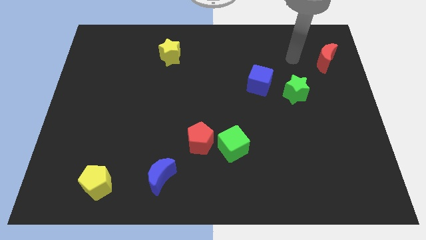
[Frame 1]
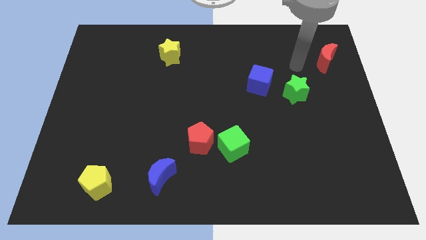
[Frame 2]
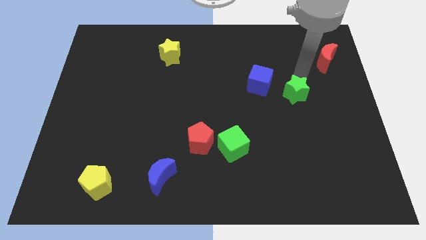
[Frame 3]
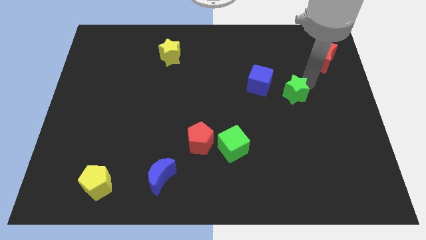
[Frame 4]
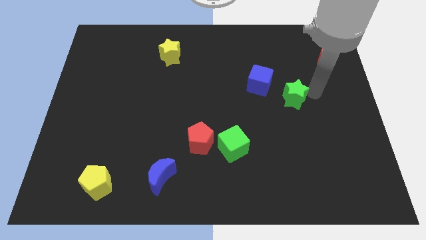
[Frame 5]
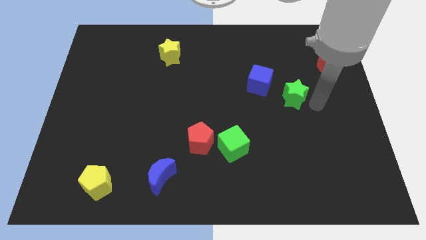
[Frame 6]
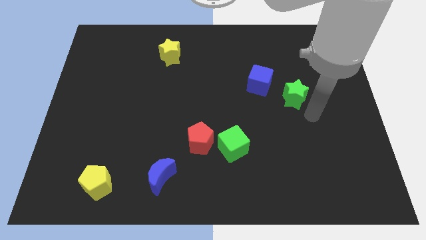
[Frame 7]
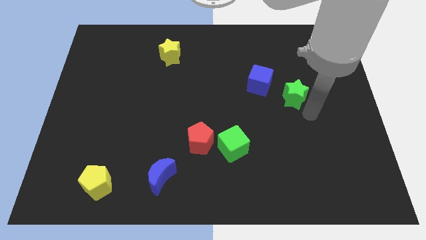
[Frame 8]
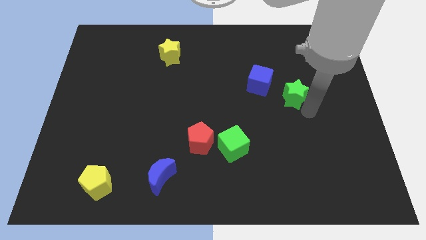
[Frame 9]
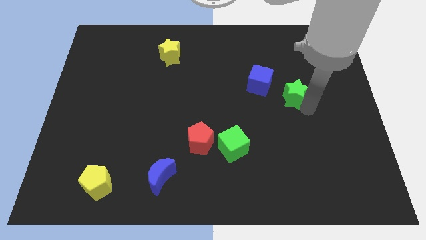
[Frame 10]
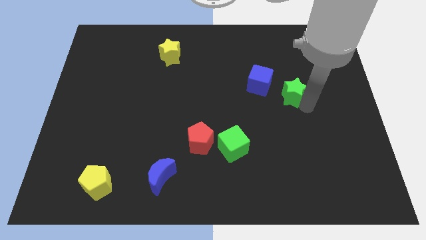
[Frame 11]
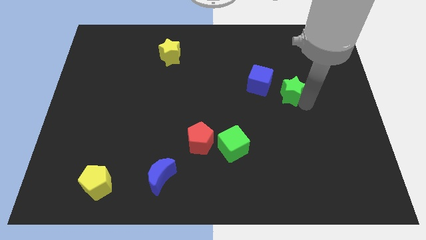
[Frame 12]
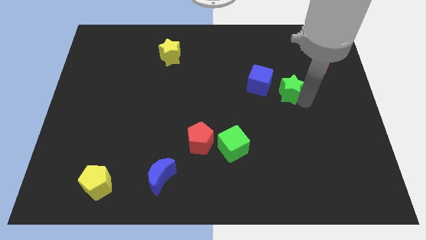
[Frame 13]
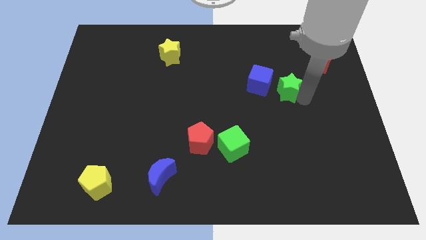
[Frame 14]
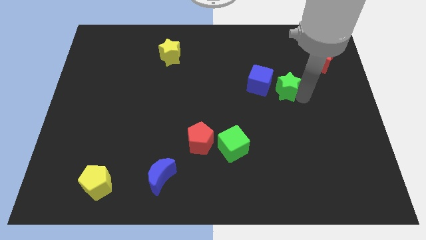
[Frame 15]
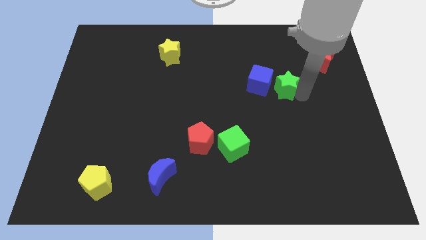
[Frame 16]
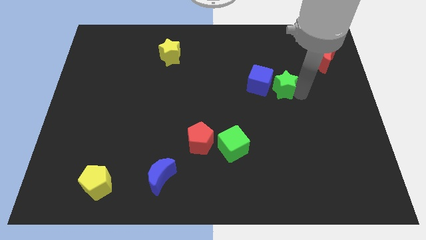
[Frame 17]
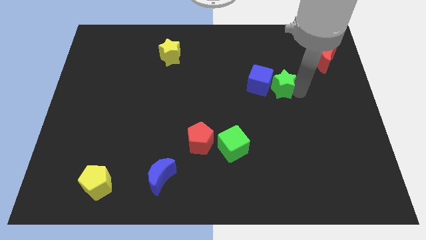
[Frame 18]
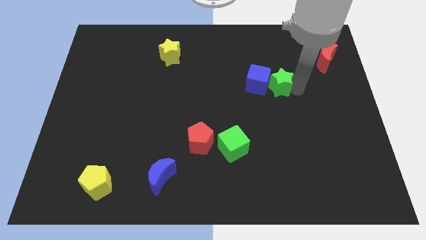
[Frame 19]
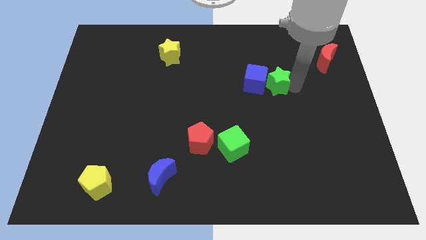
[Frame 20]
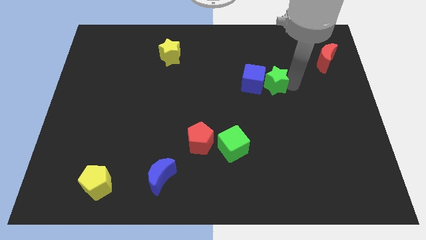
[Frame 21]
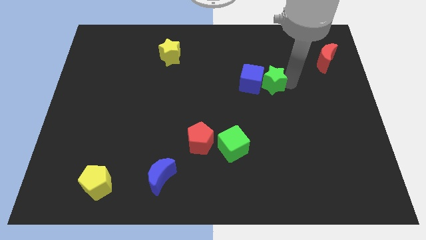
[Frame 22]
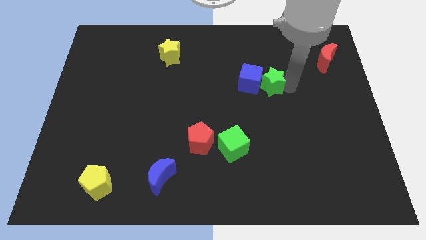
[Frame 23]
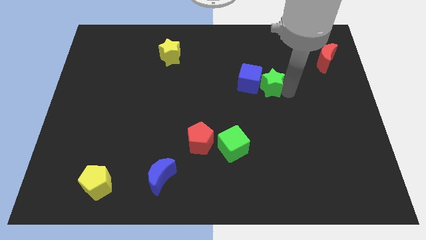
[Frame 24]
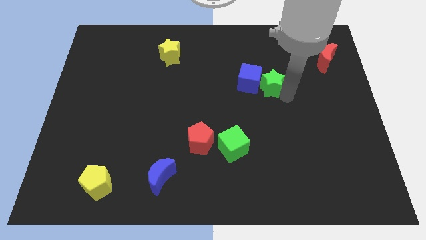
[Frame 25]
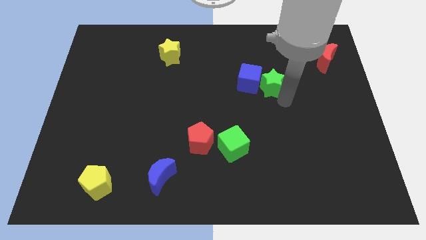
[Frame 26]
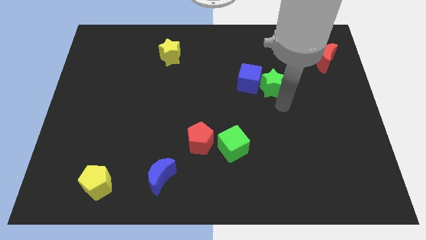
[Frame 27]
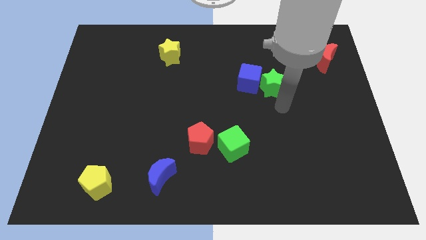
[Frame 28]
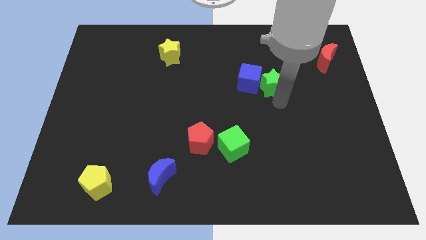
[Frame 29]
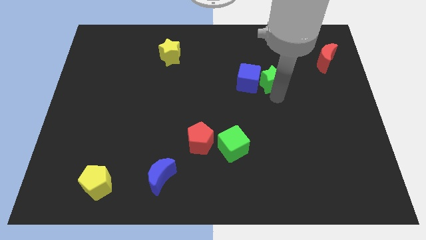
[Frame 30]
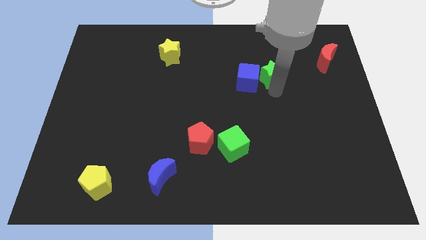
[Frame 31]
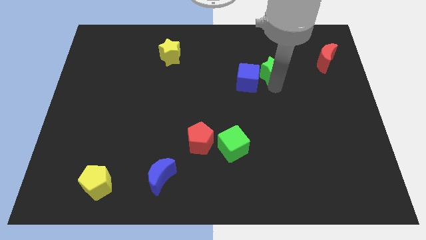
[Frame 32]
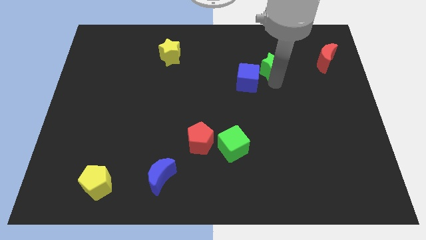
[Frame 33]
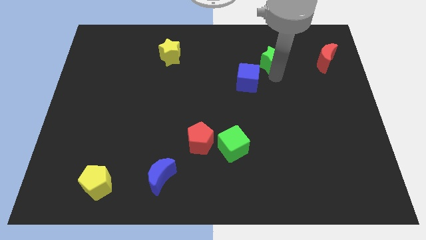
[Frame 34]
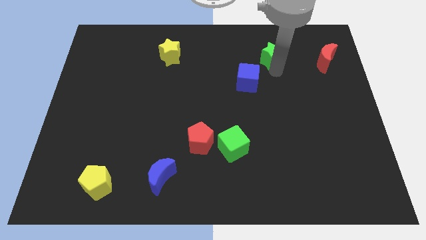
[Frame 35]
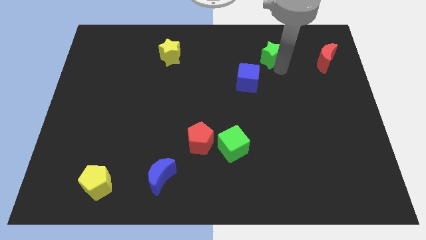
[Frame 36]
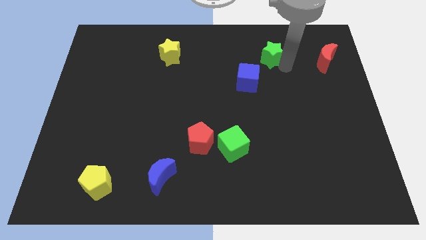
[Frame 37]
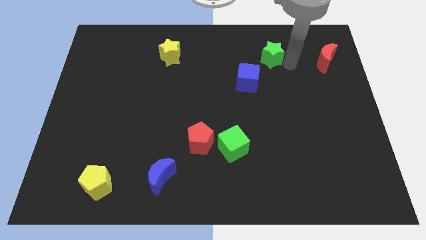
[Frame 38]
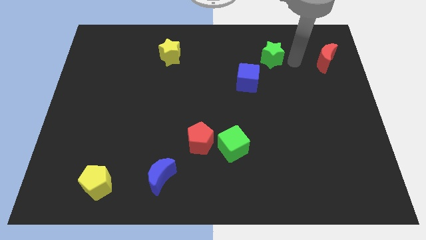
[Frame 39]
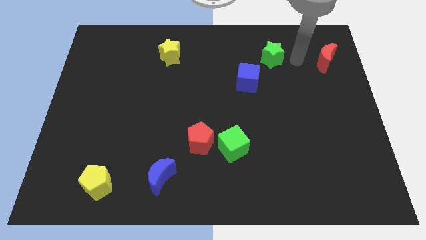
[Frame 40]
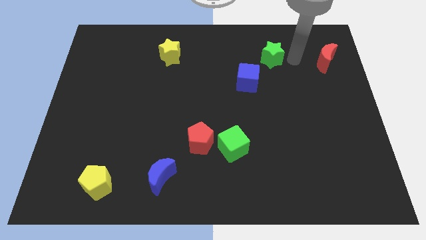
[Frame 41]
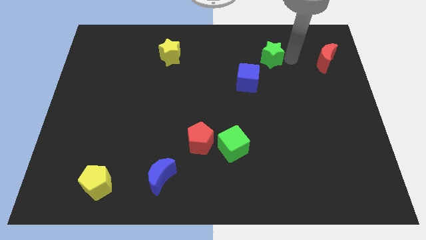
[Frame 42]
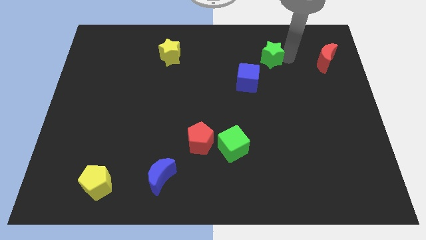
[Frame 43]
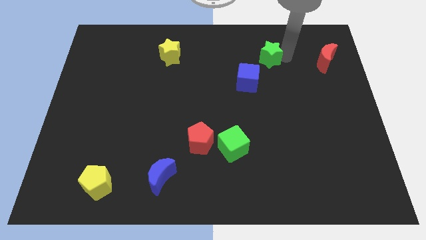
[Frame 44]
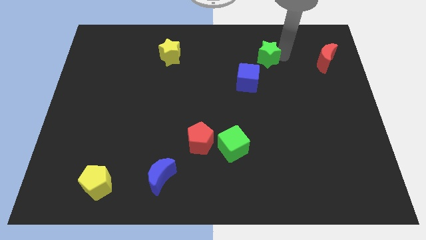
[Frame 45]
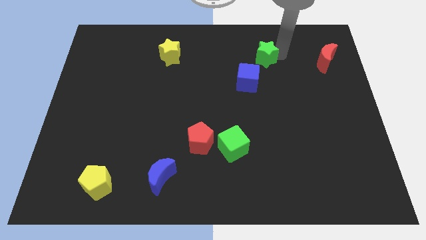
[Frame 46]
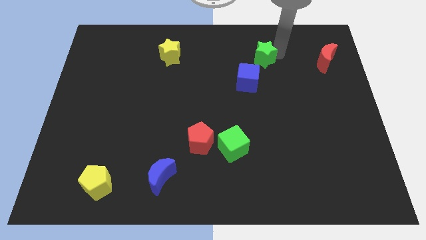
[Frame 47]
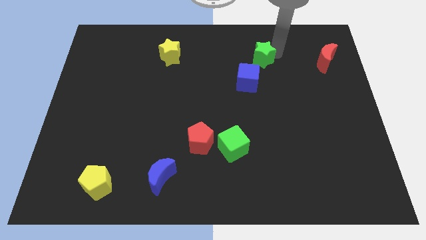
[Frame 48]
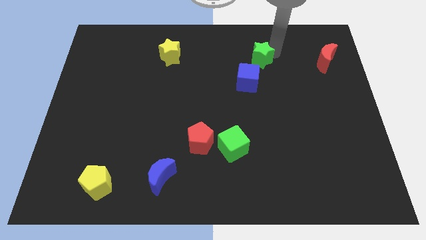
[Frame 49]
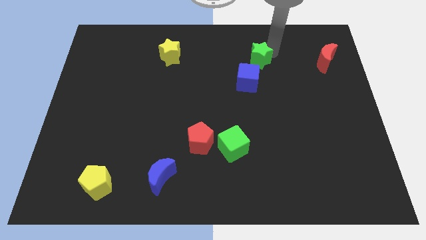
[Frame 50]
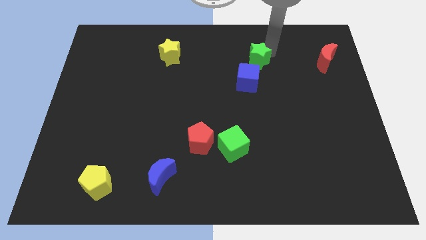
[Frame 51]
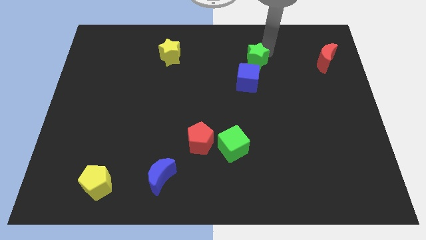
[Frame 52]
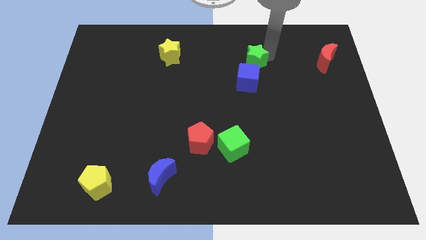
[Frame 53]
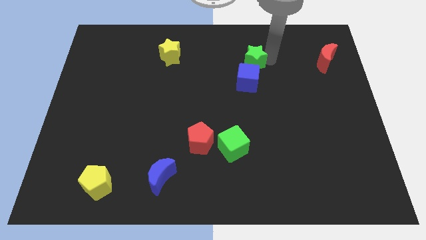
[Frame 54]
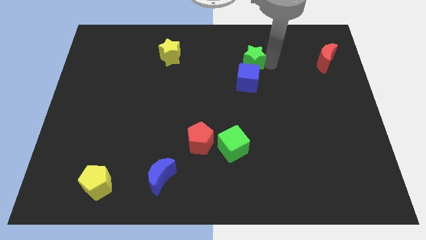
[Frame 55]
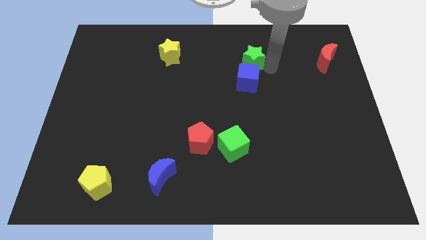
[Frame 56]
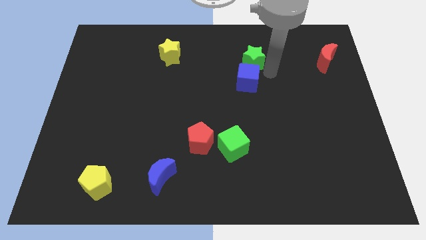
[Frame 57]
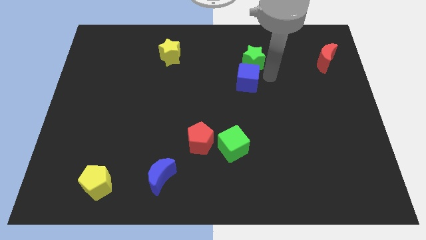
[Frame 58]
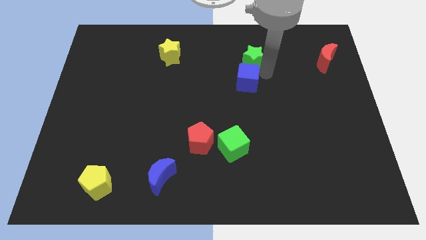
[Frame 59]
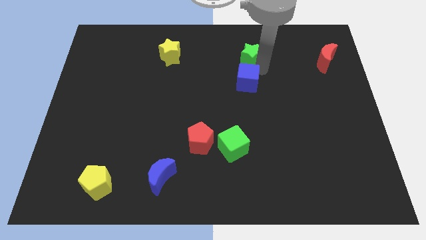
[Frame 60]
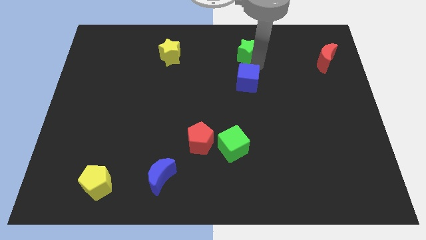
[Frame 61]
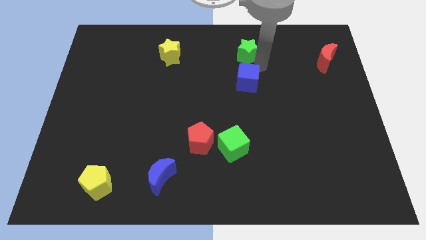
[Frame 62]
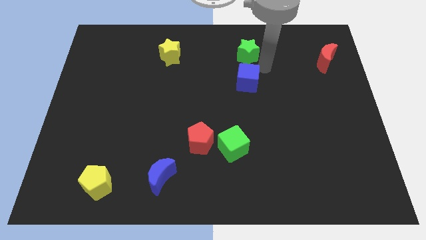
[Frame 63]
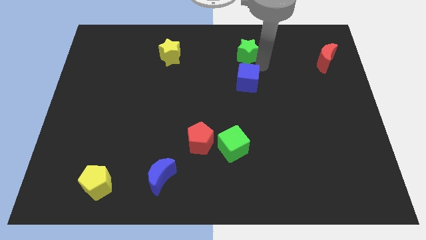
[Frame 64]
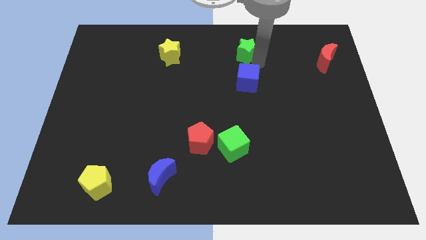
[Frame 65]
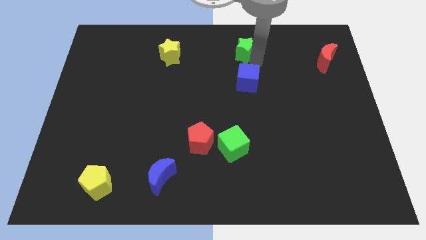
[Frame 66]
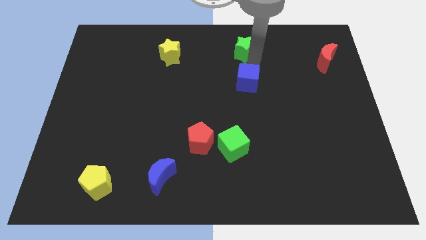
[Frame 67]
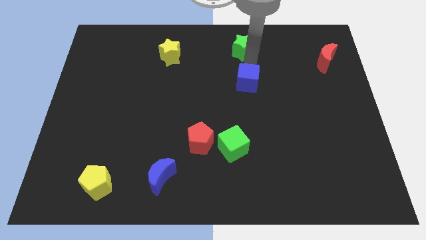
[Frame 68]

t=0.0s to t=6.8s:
slide the green star to the top side

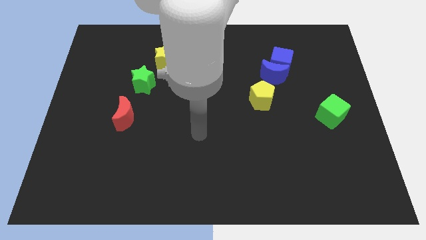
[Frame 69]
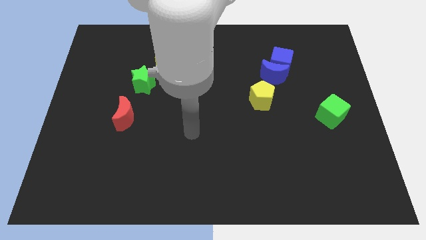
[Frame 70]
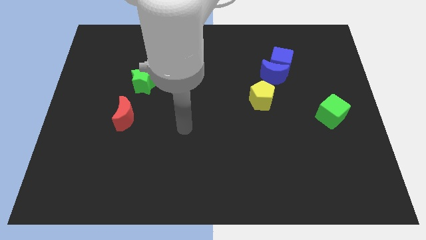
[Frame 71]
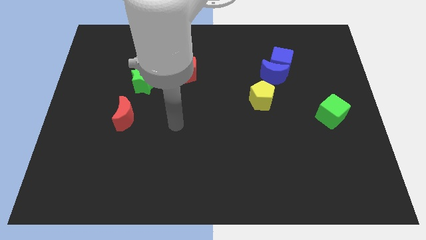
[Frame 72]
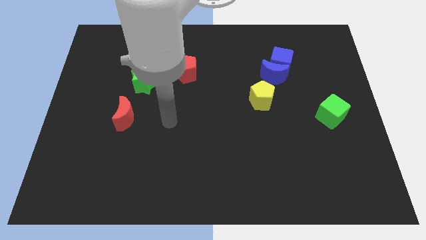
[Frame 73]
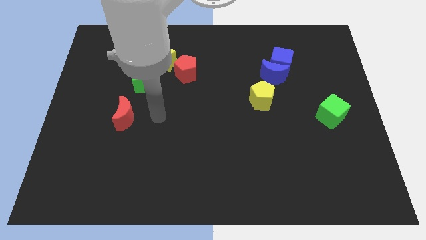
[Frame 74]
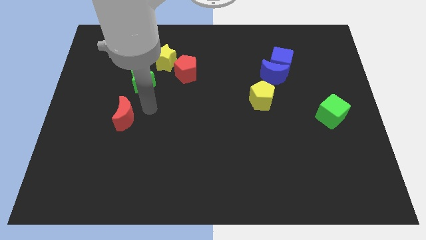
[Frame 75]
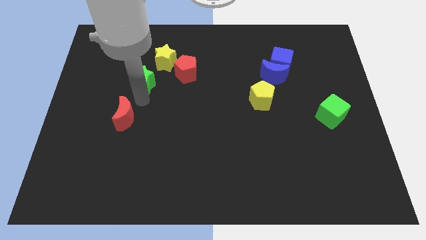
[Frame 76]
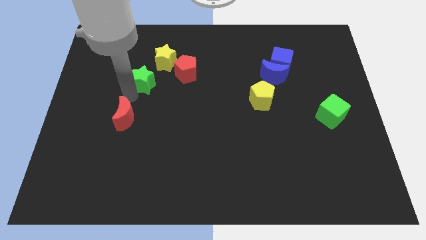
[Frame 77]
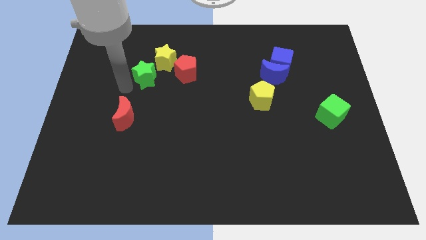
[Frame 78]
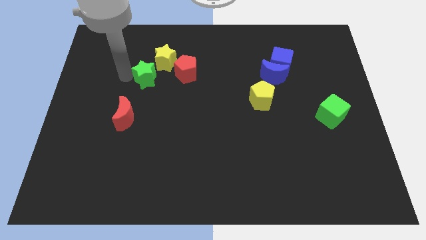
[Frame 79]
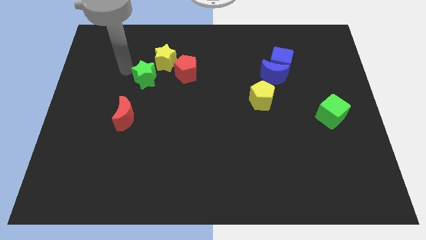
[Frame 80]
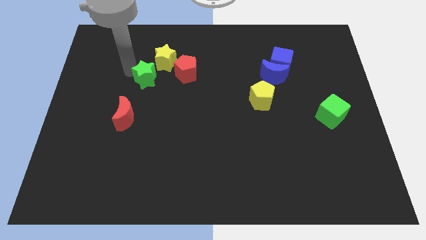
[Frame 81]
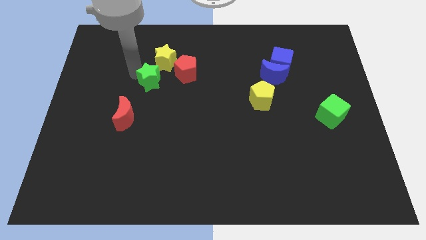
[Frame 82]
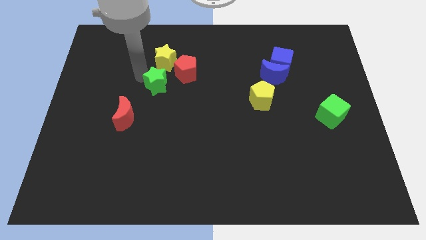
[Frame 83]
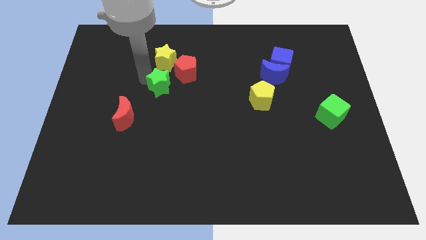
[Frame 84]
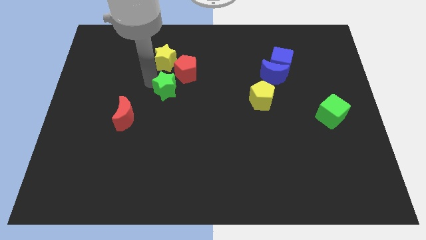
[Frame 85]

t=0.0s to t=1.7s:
put the green star to the center of the board
